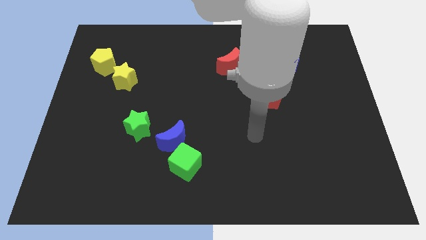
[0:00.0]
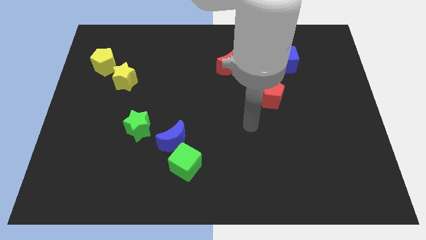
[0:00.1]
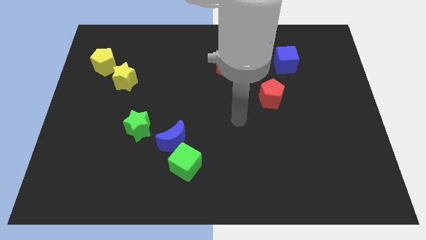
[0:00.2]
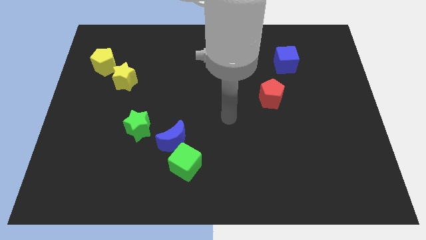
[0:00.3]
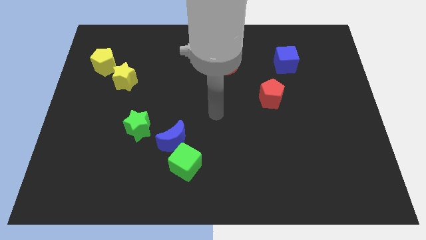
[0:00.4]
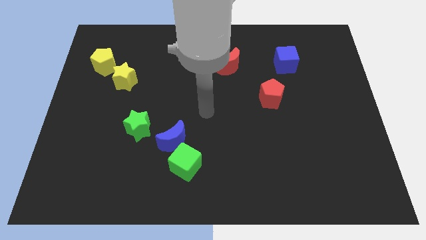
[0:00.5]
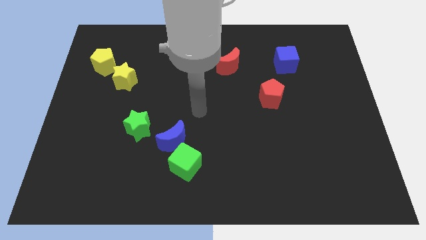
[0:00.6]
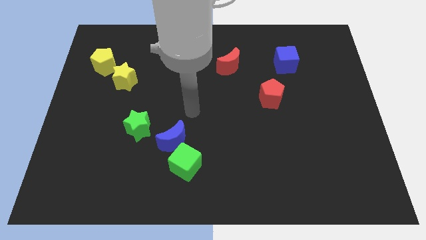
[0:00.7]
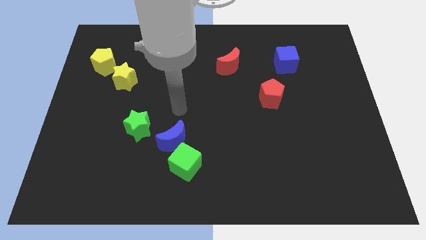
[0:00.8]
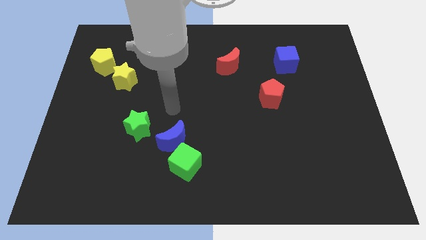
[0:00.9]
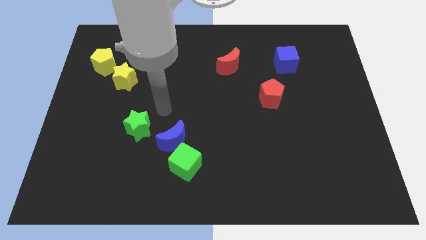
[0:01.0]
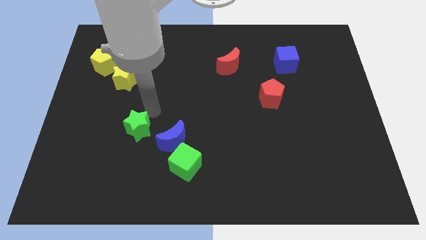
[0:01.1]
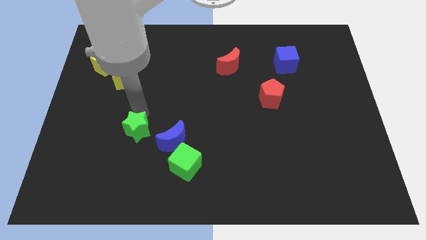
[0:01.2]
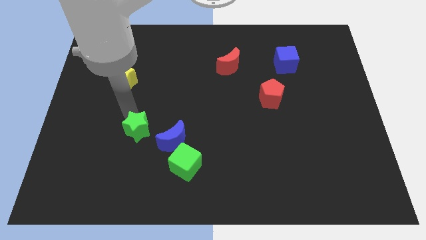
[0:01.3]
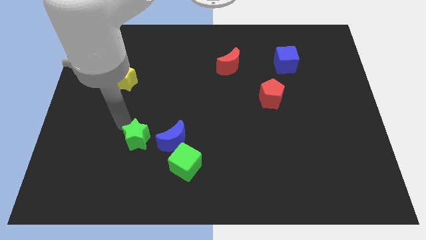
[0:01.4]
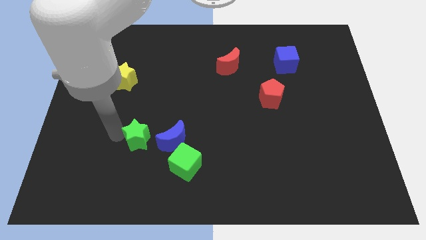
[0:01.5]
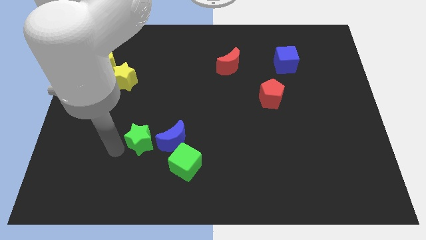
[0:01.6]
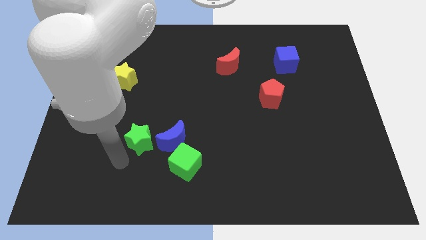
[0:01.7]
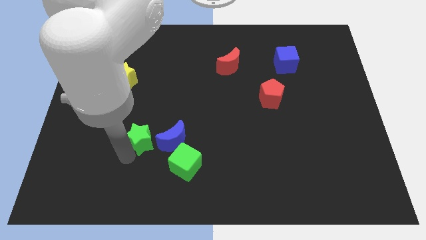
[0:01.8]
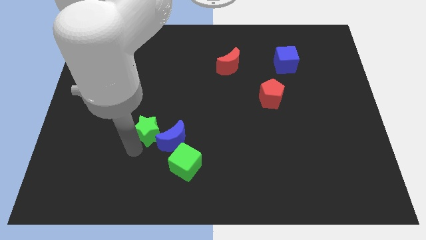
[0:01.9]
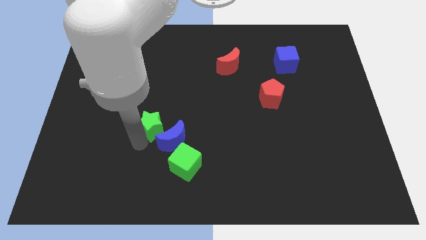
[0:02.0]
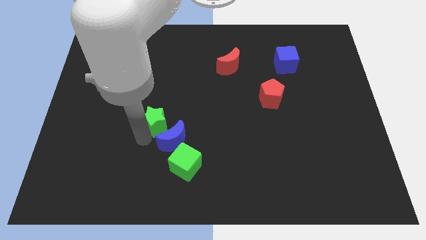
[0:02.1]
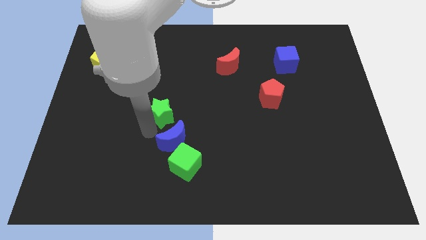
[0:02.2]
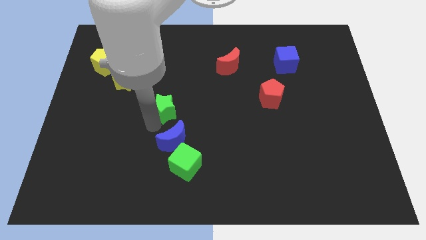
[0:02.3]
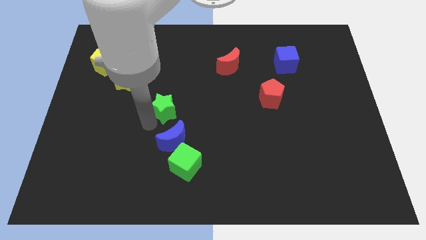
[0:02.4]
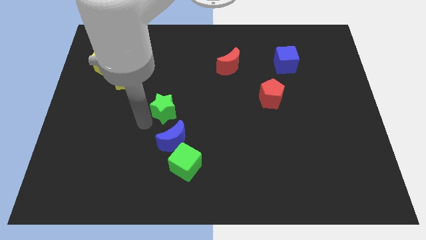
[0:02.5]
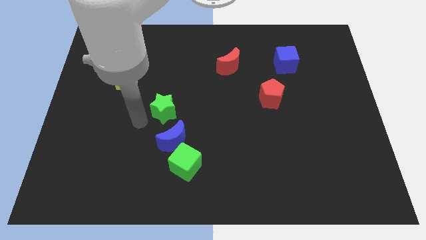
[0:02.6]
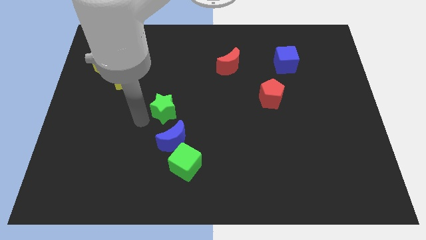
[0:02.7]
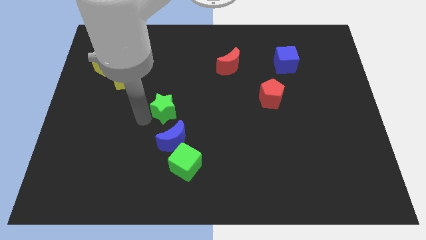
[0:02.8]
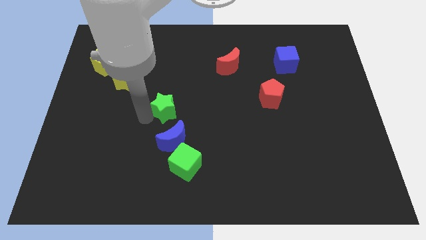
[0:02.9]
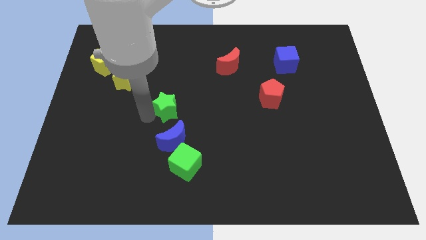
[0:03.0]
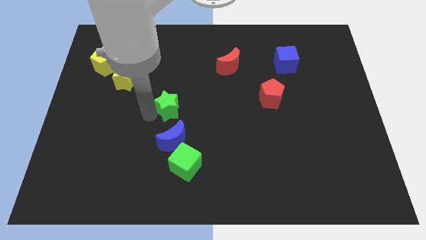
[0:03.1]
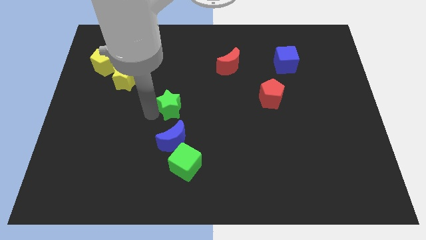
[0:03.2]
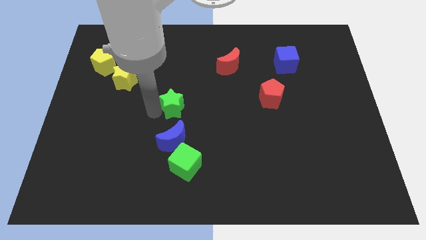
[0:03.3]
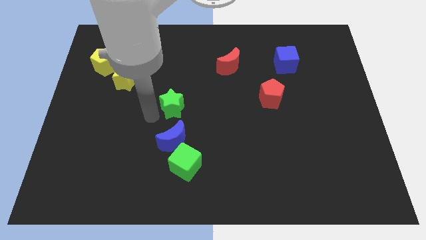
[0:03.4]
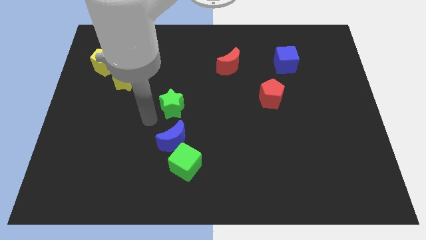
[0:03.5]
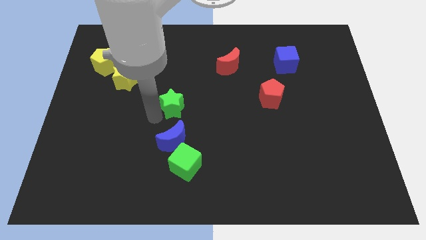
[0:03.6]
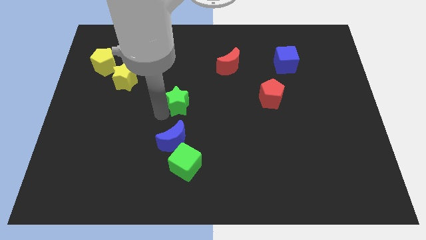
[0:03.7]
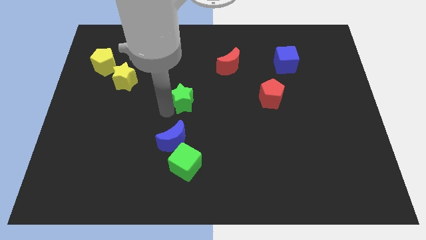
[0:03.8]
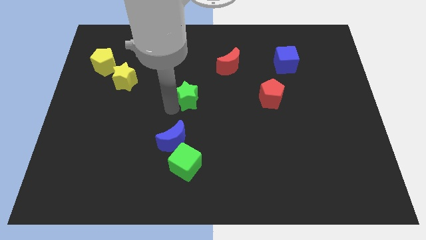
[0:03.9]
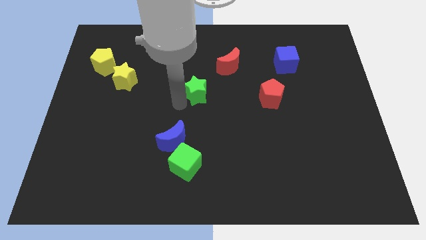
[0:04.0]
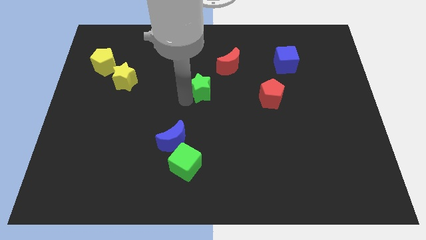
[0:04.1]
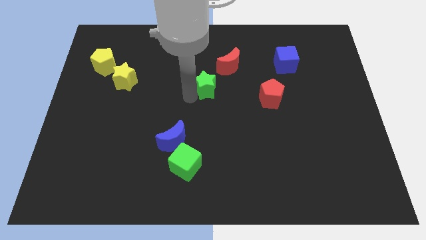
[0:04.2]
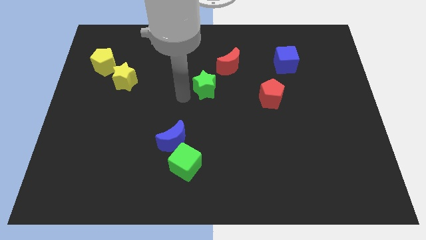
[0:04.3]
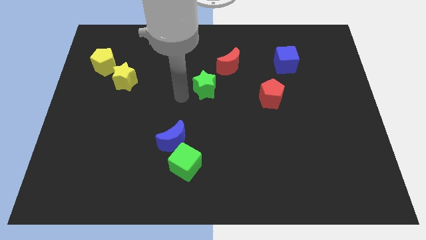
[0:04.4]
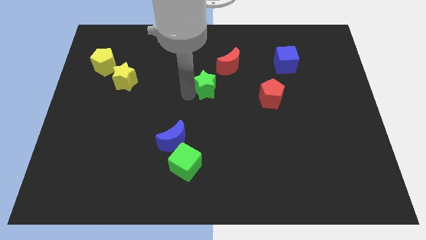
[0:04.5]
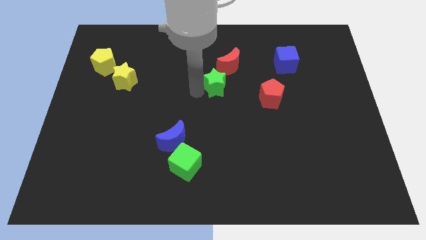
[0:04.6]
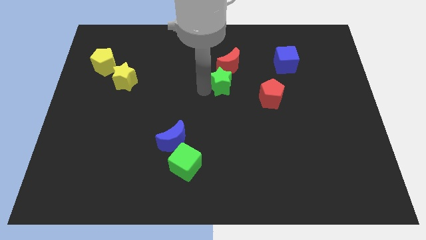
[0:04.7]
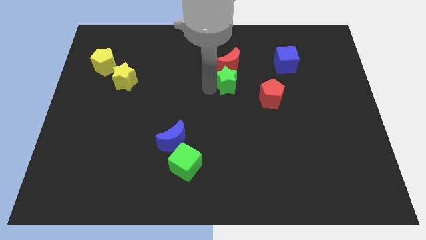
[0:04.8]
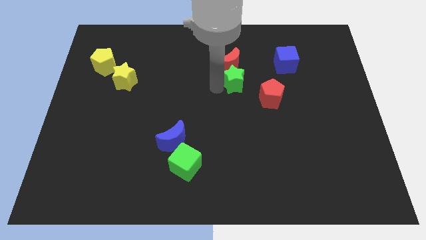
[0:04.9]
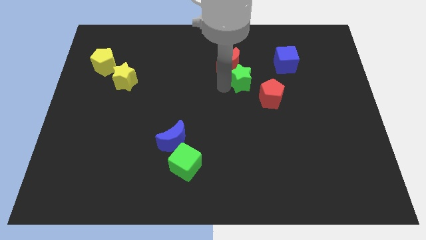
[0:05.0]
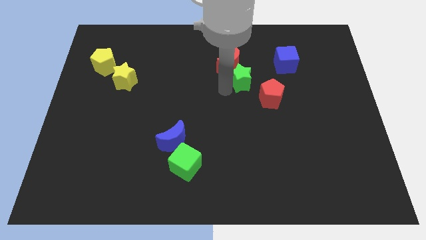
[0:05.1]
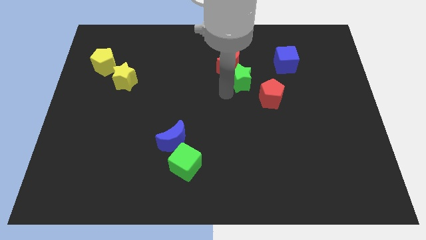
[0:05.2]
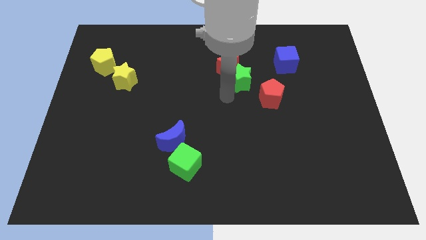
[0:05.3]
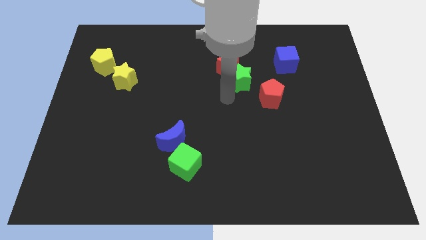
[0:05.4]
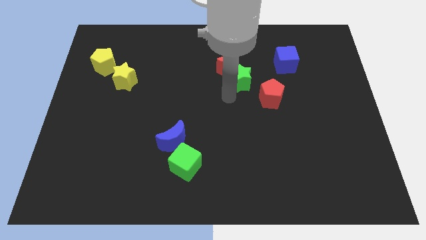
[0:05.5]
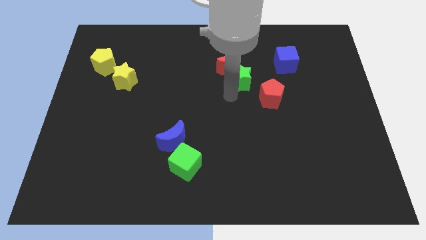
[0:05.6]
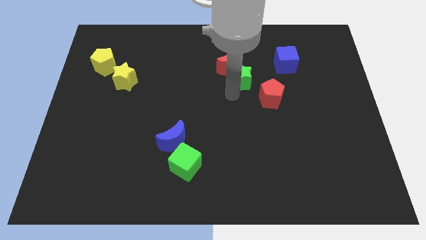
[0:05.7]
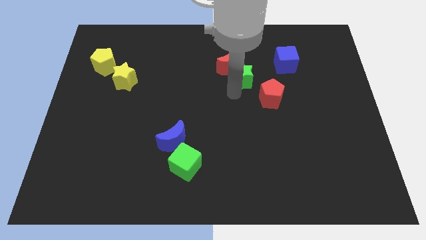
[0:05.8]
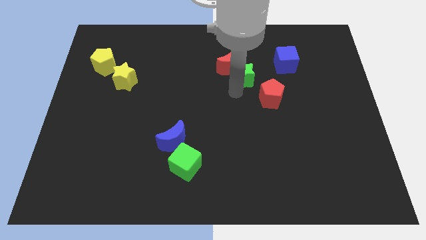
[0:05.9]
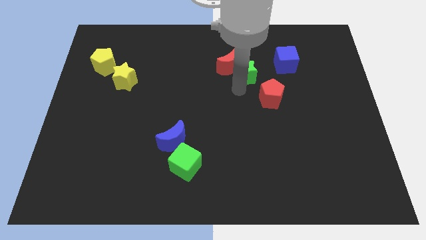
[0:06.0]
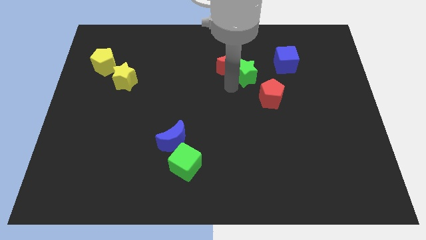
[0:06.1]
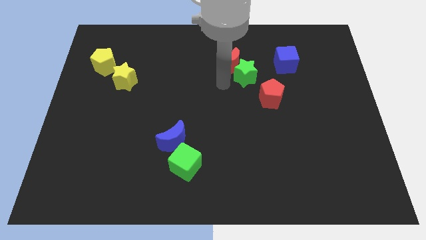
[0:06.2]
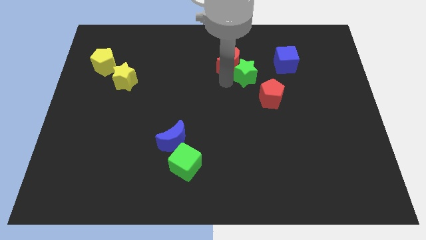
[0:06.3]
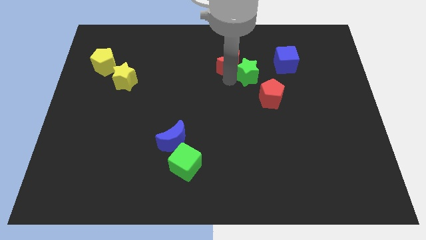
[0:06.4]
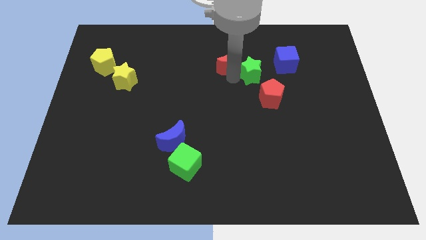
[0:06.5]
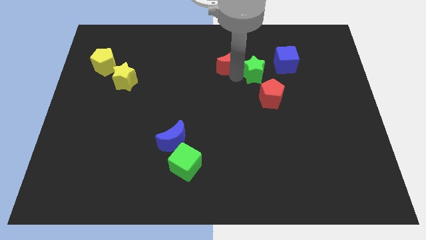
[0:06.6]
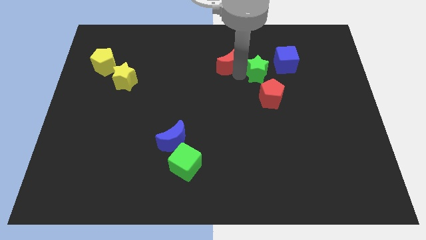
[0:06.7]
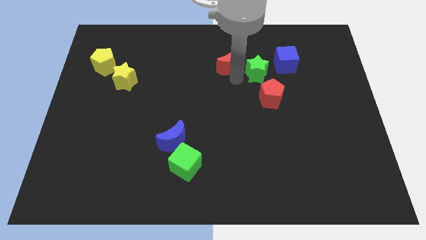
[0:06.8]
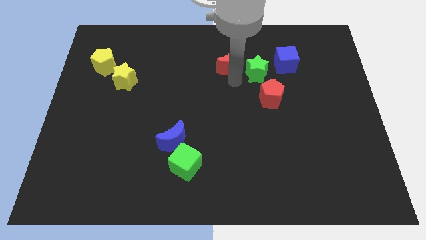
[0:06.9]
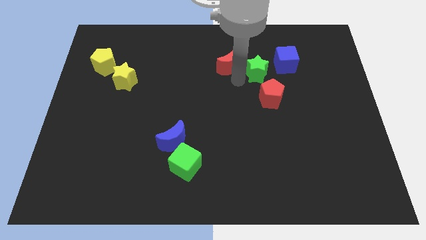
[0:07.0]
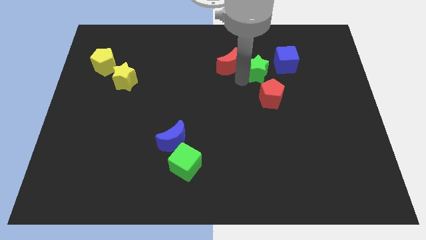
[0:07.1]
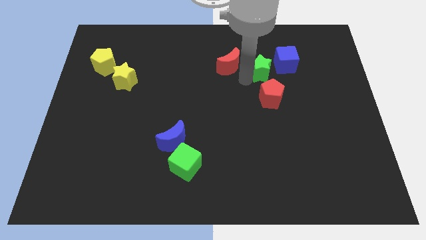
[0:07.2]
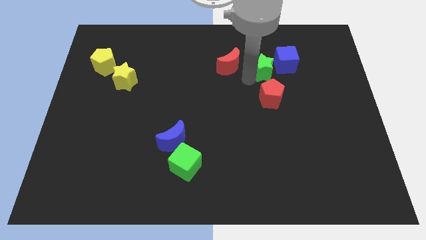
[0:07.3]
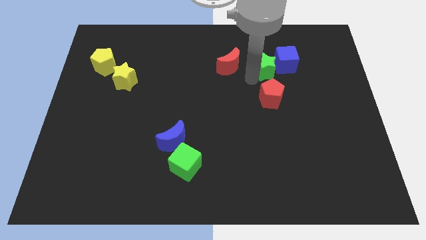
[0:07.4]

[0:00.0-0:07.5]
push the green star to the blue cube
